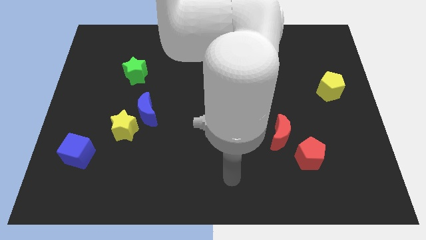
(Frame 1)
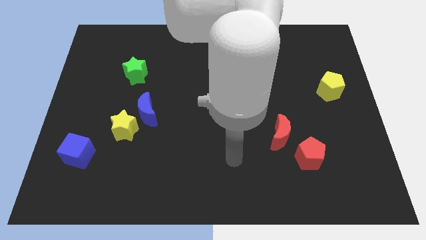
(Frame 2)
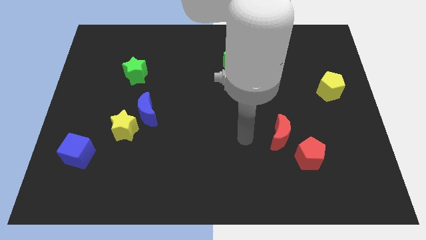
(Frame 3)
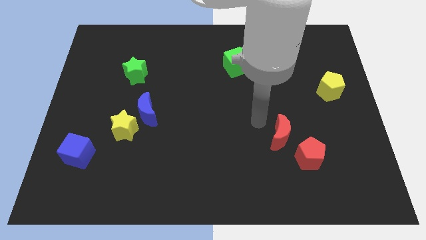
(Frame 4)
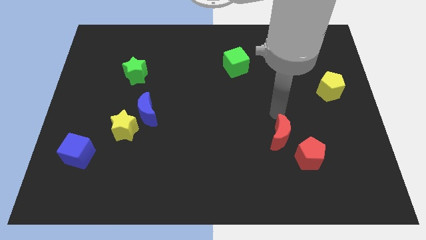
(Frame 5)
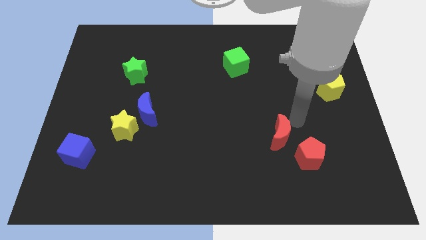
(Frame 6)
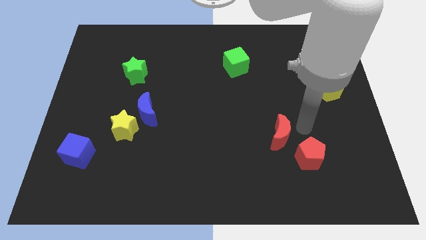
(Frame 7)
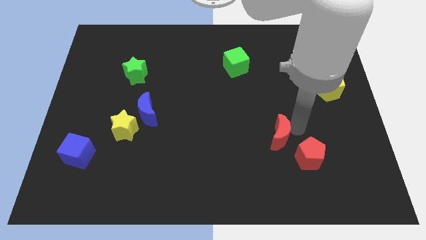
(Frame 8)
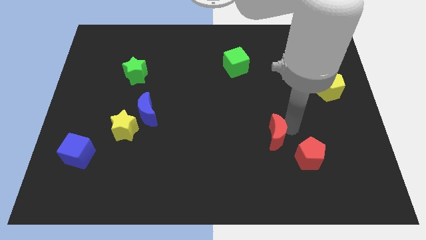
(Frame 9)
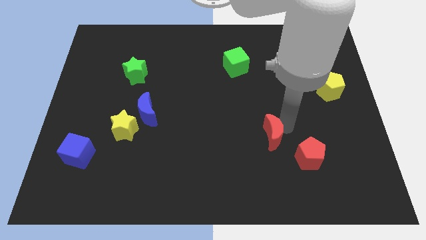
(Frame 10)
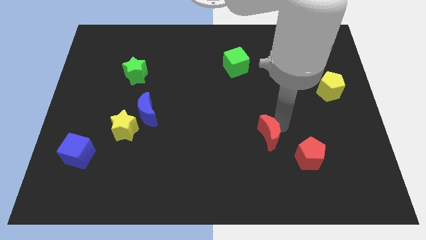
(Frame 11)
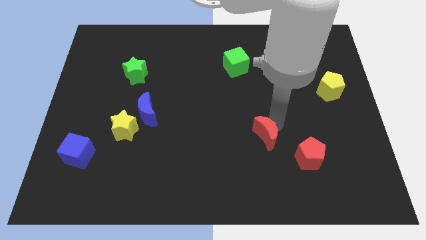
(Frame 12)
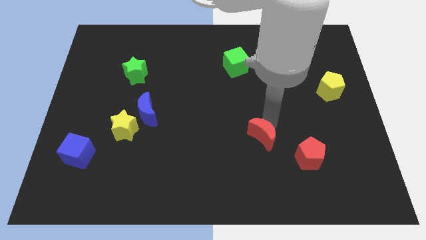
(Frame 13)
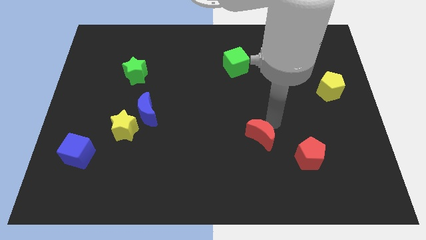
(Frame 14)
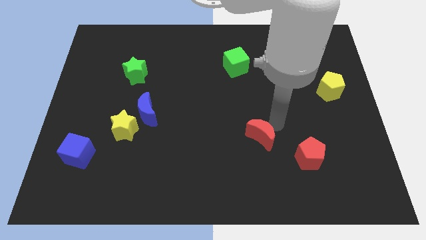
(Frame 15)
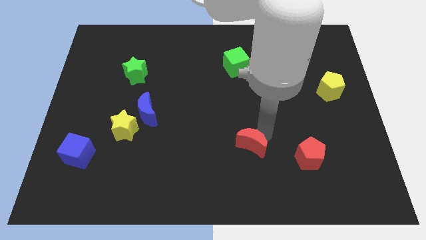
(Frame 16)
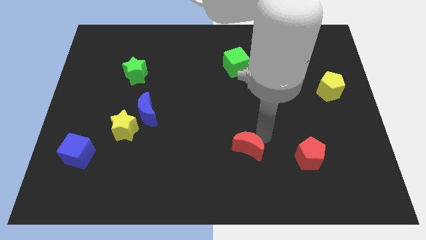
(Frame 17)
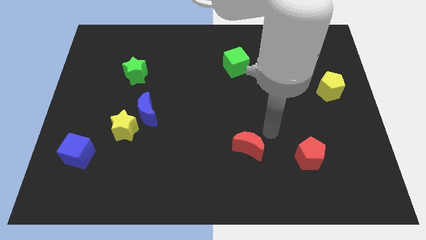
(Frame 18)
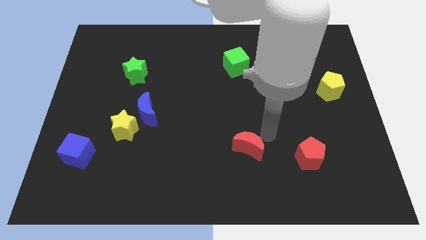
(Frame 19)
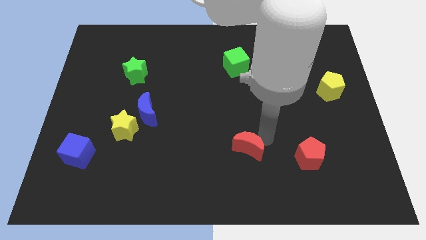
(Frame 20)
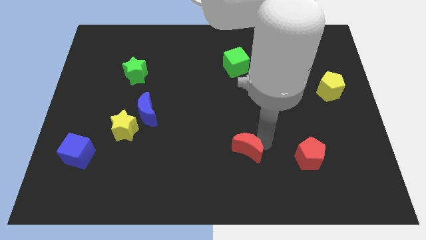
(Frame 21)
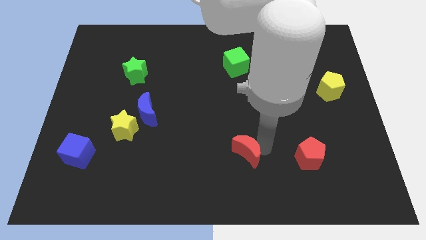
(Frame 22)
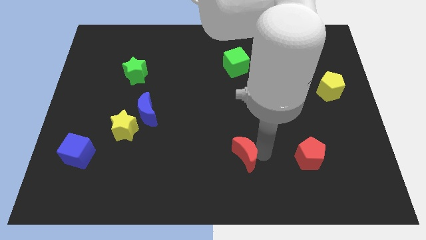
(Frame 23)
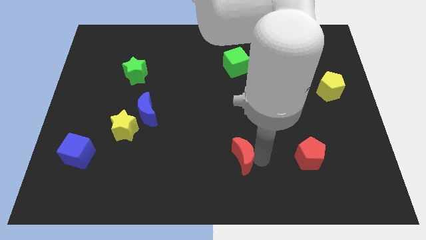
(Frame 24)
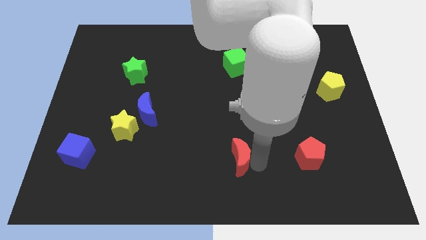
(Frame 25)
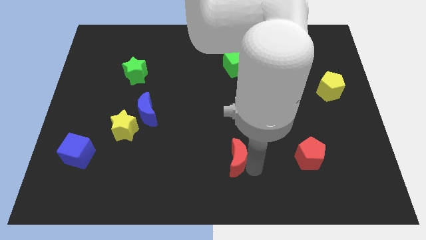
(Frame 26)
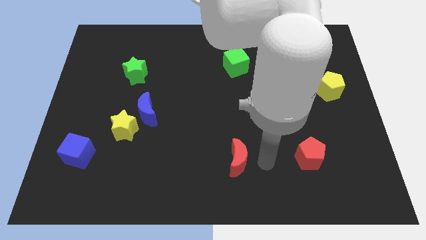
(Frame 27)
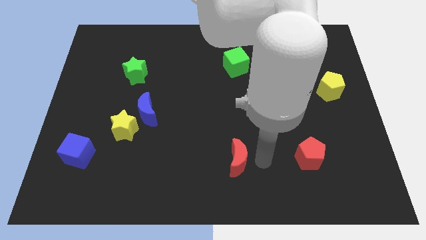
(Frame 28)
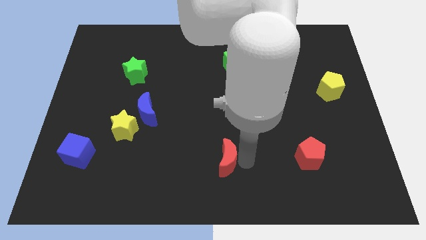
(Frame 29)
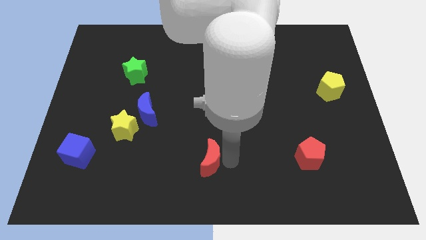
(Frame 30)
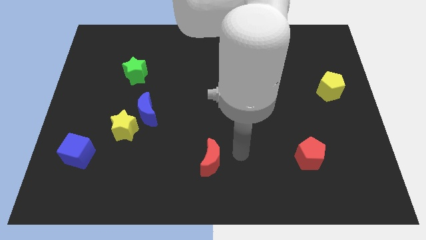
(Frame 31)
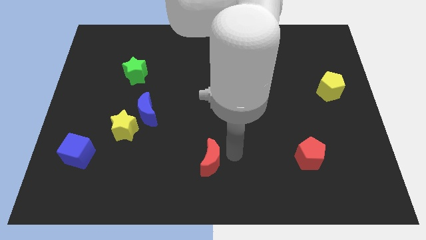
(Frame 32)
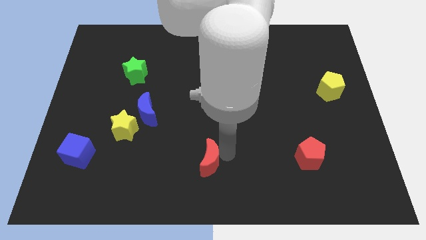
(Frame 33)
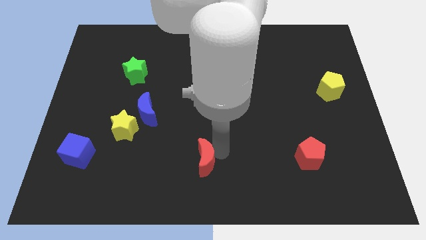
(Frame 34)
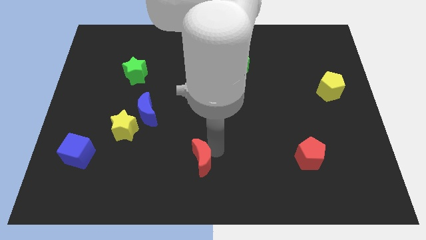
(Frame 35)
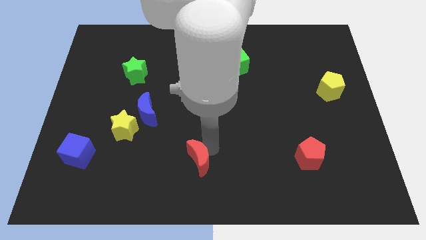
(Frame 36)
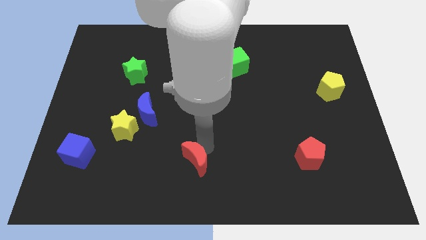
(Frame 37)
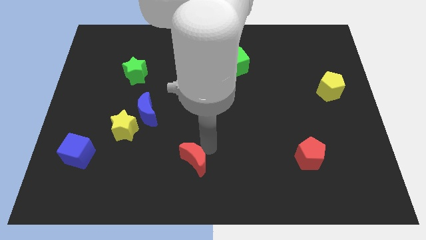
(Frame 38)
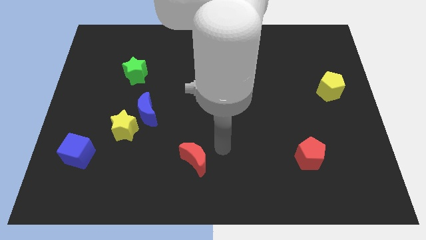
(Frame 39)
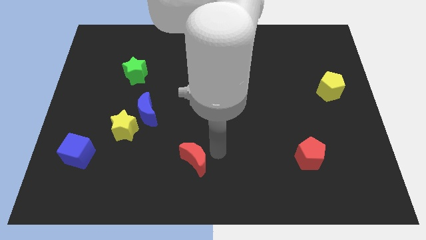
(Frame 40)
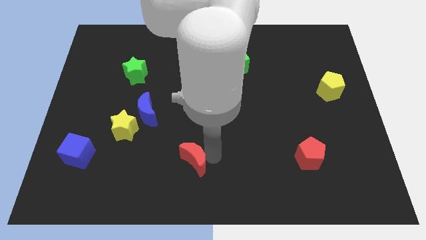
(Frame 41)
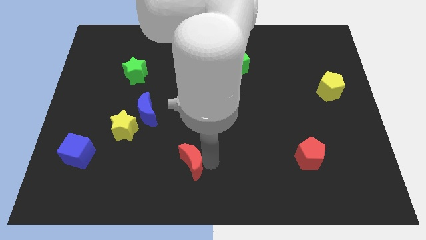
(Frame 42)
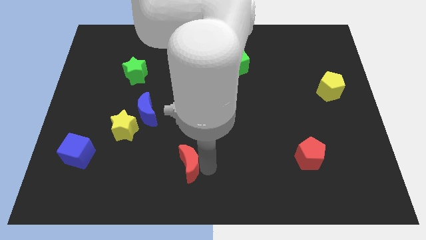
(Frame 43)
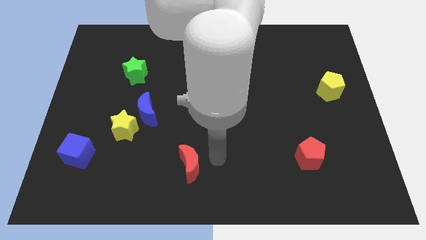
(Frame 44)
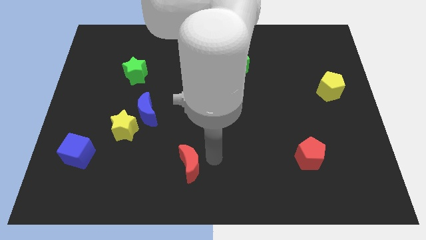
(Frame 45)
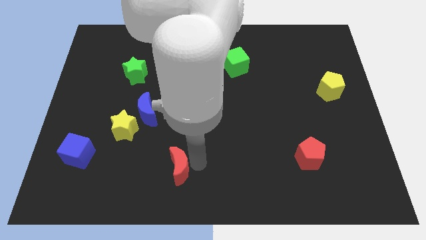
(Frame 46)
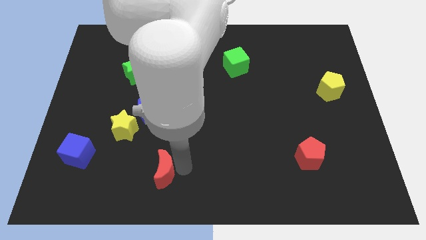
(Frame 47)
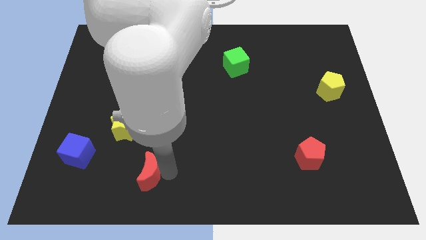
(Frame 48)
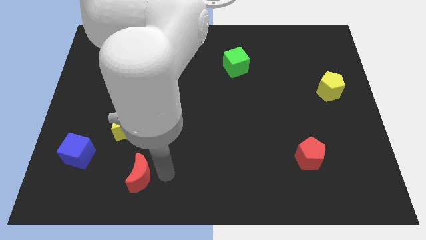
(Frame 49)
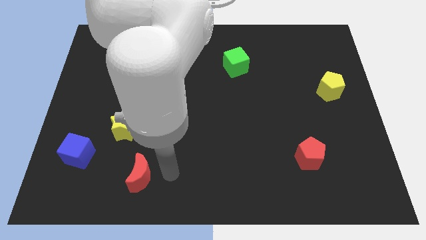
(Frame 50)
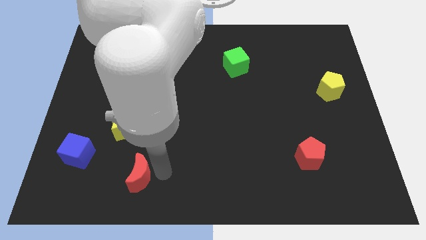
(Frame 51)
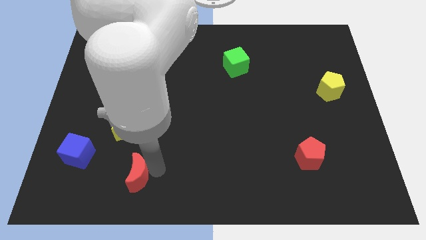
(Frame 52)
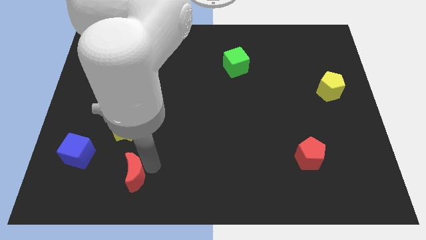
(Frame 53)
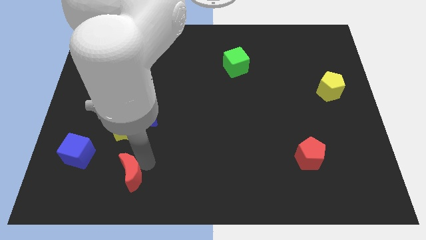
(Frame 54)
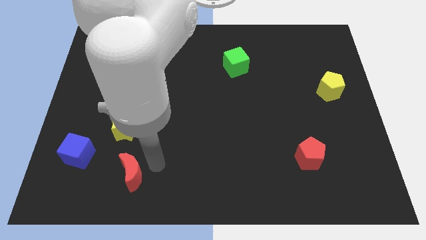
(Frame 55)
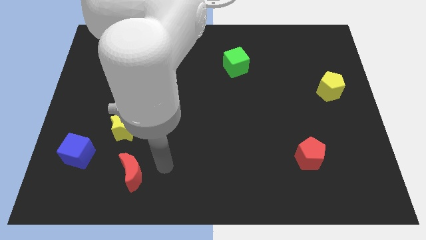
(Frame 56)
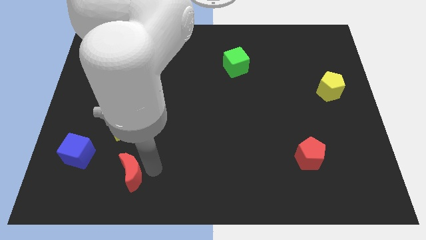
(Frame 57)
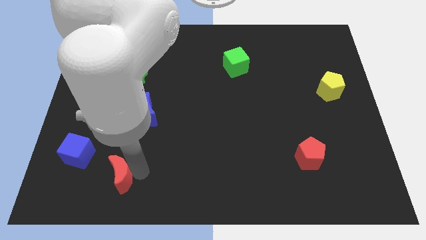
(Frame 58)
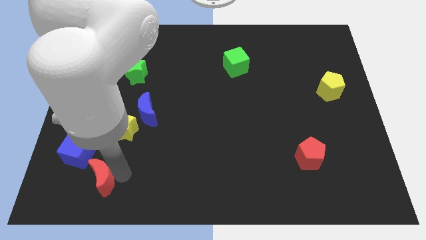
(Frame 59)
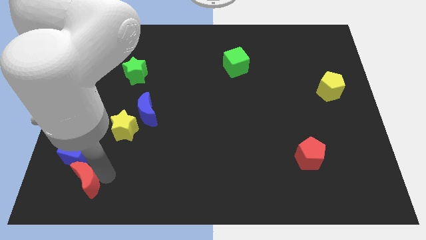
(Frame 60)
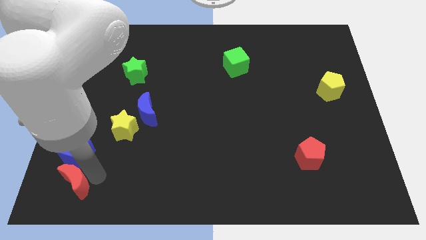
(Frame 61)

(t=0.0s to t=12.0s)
move the red moon to the bottom left corner

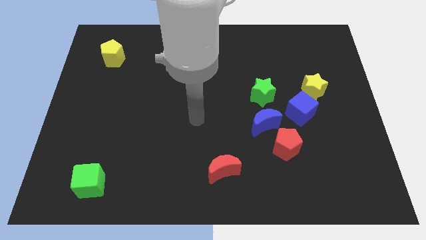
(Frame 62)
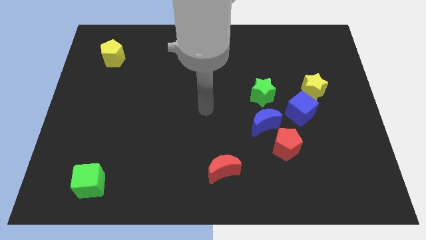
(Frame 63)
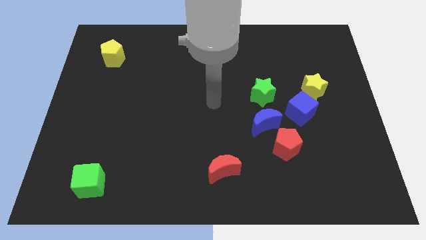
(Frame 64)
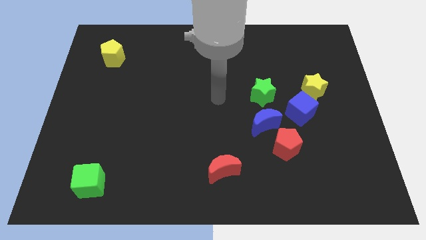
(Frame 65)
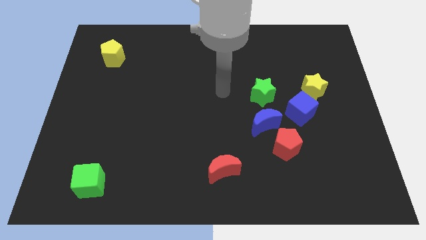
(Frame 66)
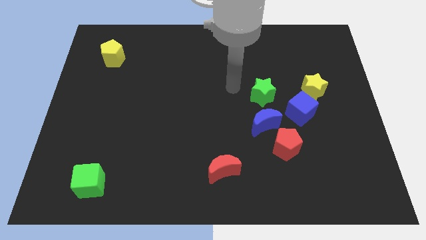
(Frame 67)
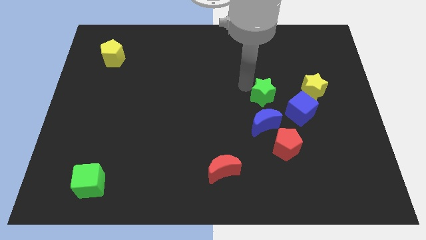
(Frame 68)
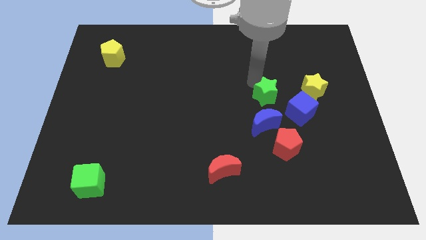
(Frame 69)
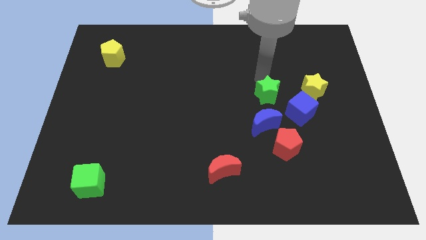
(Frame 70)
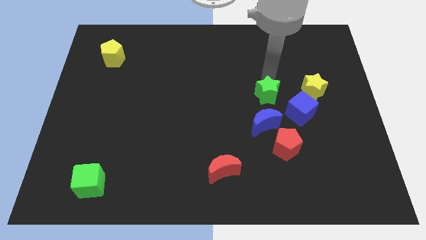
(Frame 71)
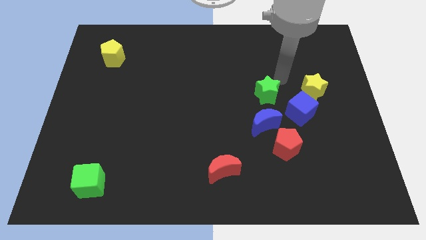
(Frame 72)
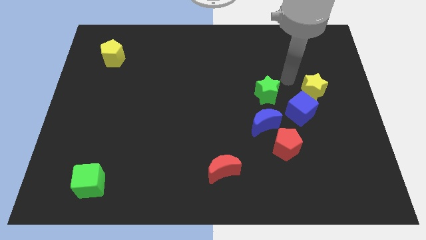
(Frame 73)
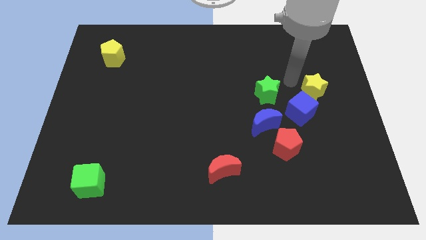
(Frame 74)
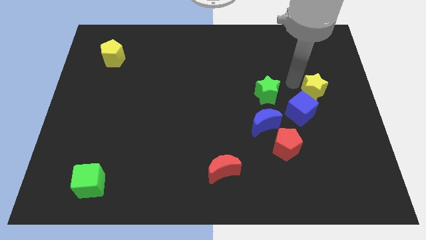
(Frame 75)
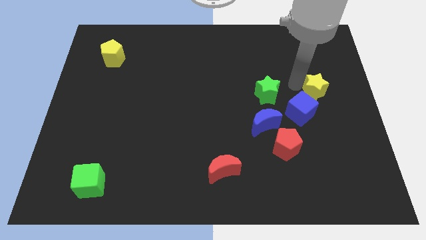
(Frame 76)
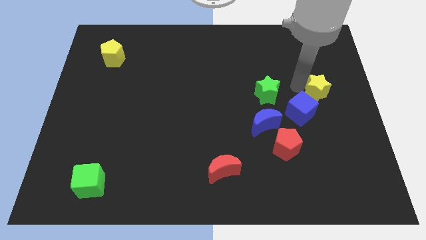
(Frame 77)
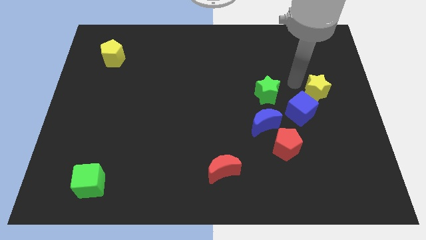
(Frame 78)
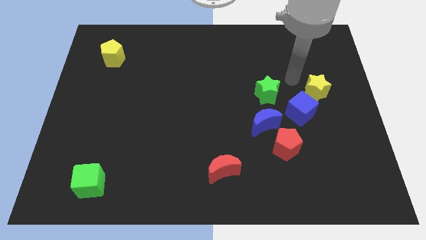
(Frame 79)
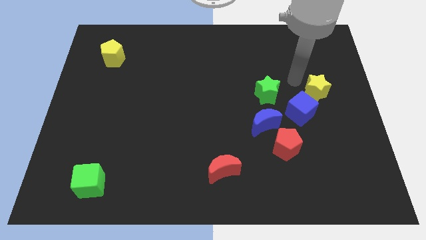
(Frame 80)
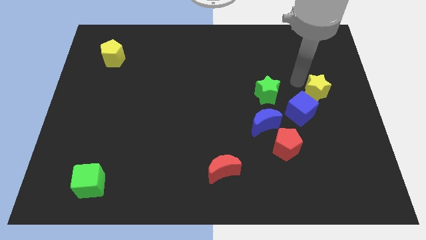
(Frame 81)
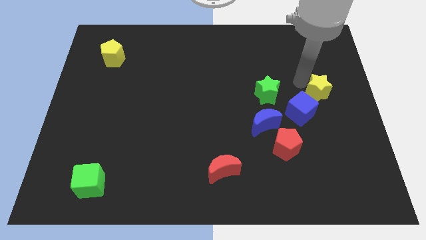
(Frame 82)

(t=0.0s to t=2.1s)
slide the yellow star to the right side of the board
